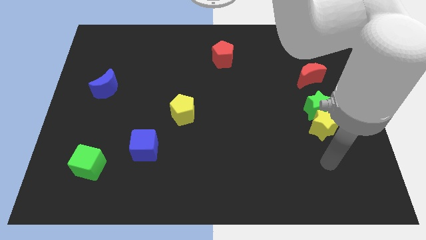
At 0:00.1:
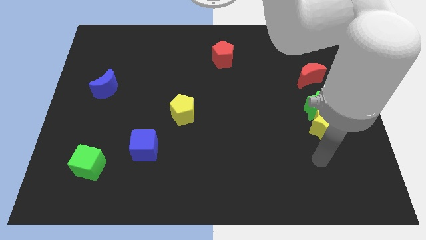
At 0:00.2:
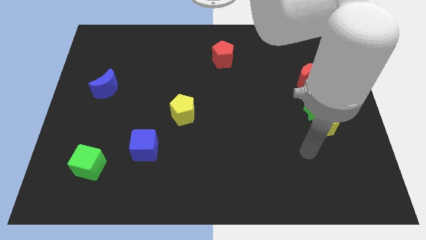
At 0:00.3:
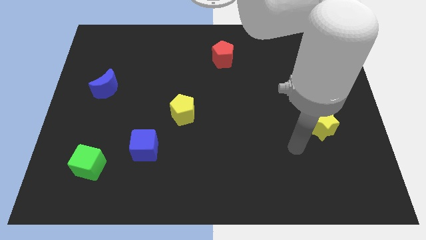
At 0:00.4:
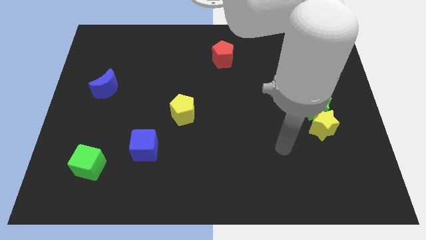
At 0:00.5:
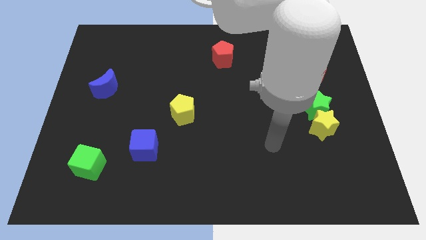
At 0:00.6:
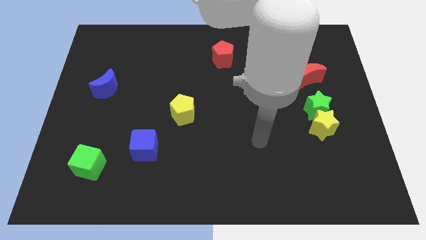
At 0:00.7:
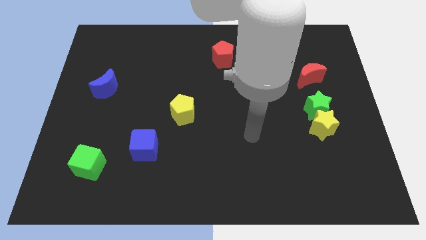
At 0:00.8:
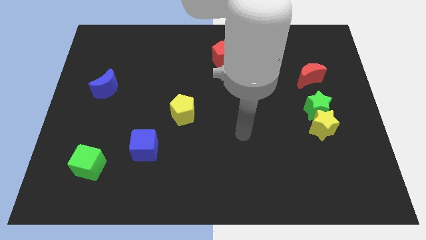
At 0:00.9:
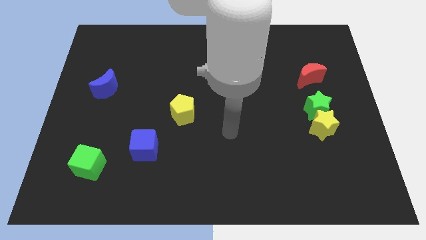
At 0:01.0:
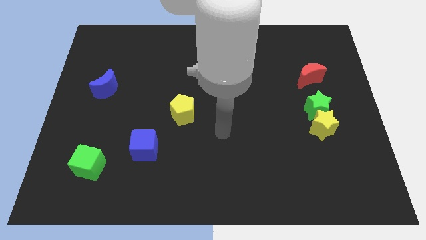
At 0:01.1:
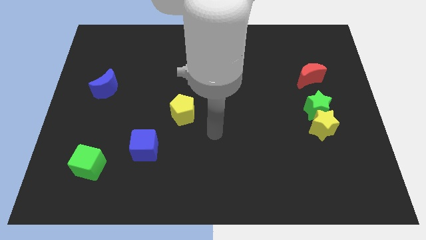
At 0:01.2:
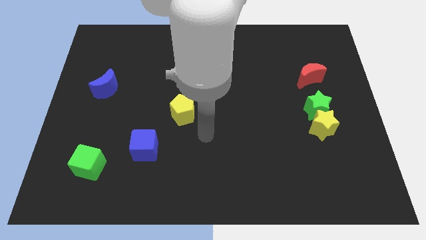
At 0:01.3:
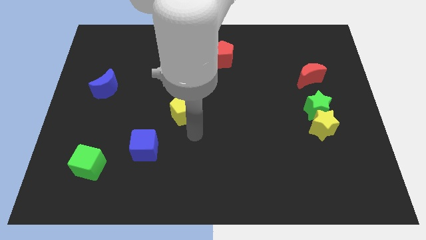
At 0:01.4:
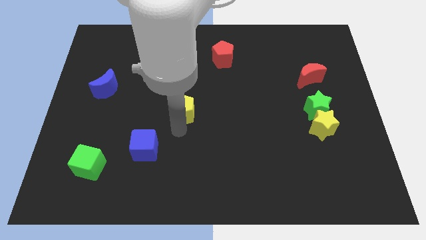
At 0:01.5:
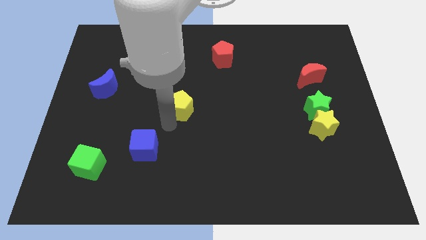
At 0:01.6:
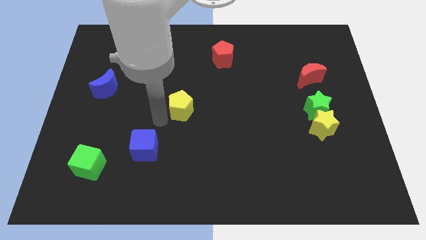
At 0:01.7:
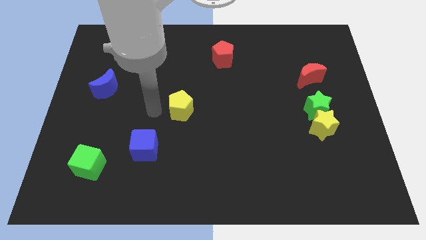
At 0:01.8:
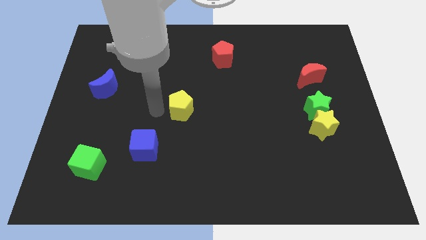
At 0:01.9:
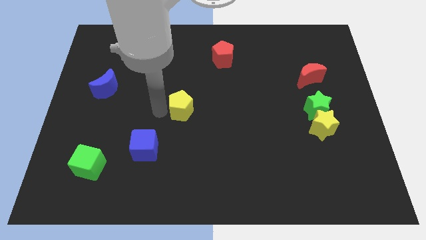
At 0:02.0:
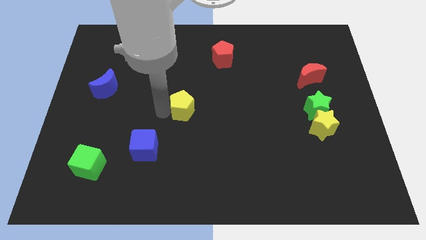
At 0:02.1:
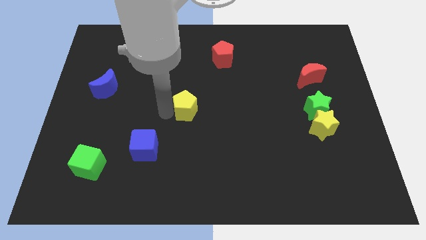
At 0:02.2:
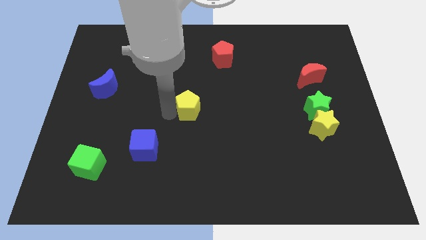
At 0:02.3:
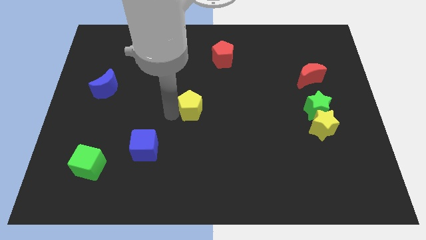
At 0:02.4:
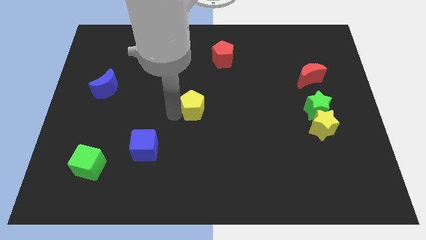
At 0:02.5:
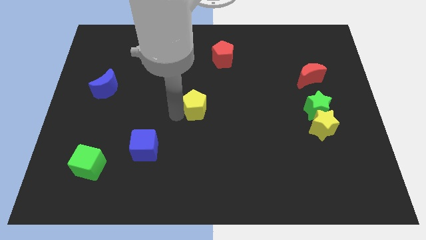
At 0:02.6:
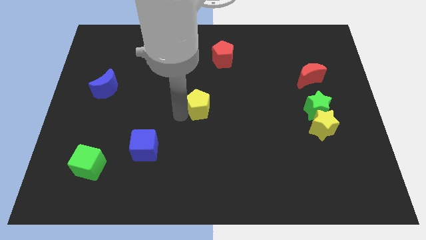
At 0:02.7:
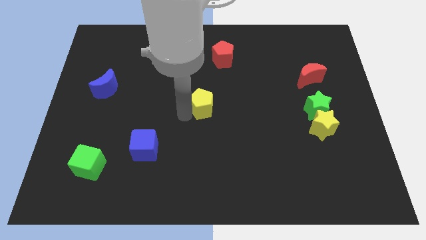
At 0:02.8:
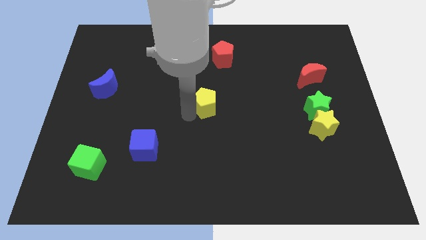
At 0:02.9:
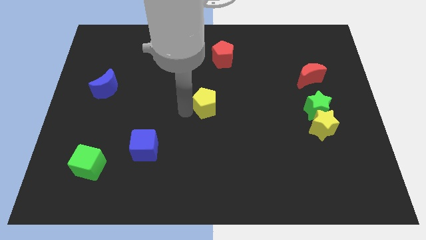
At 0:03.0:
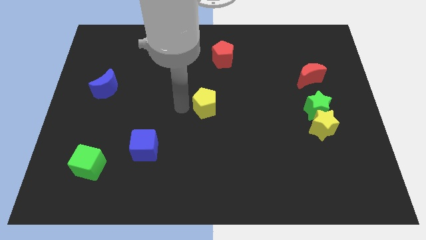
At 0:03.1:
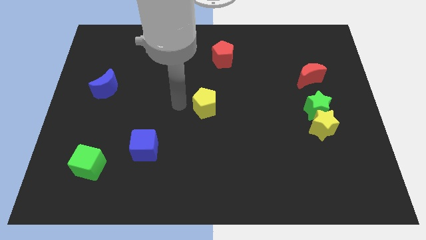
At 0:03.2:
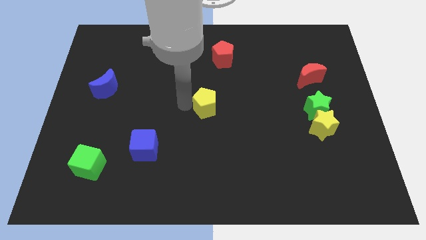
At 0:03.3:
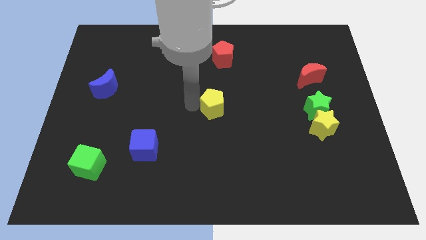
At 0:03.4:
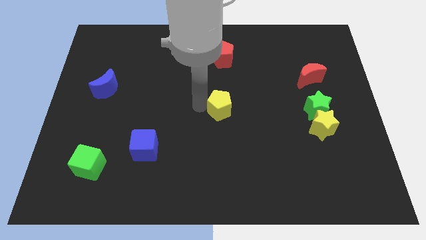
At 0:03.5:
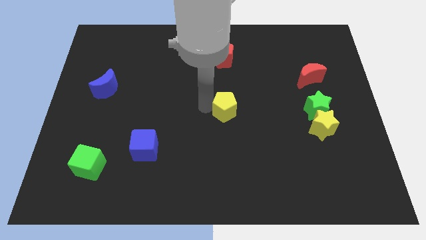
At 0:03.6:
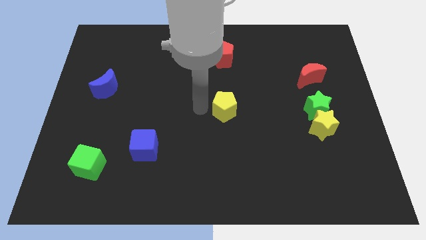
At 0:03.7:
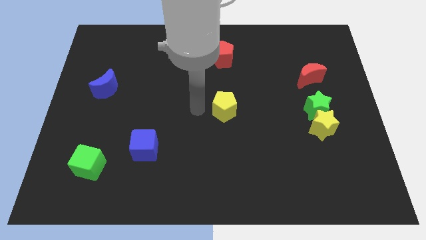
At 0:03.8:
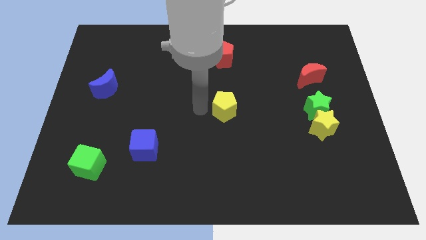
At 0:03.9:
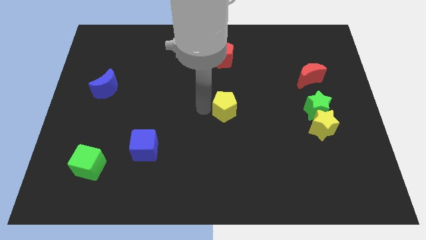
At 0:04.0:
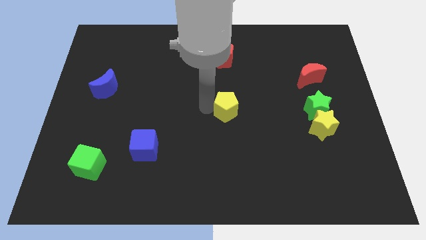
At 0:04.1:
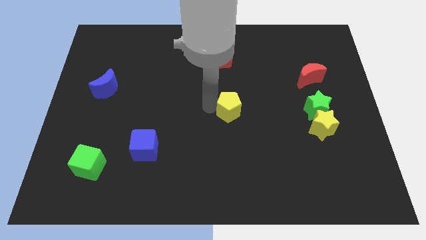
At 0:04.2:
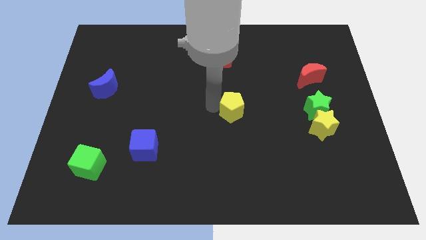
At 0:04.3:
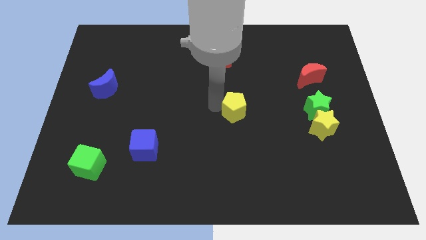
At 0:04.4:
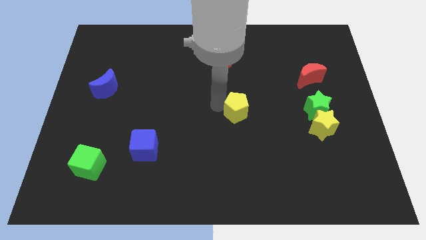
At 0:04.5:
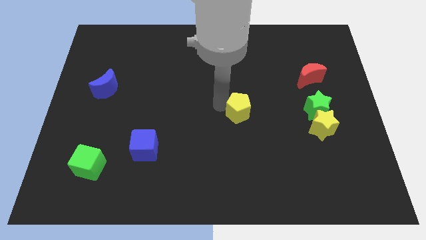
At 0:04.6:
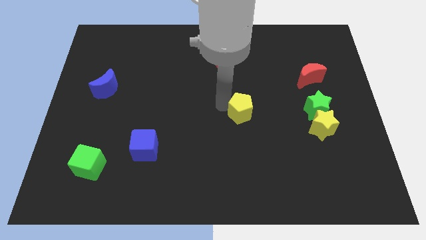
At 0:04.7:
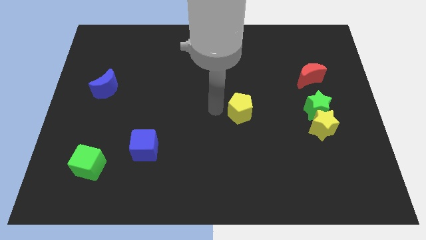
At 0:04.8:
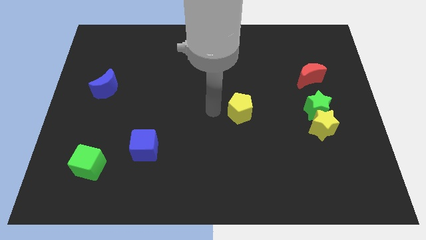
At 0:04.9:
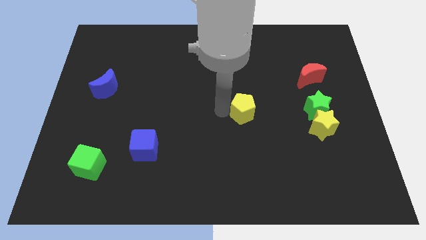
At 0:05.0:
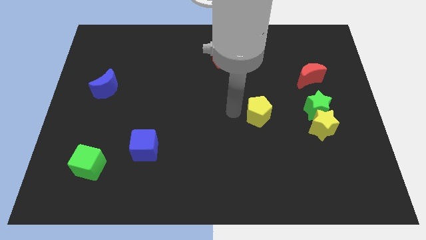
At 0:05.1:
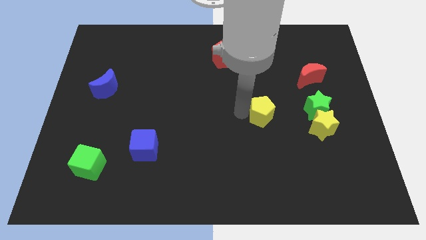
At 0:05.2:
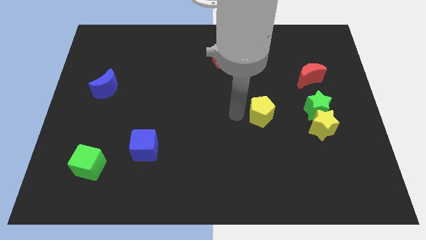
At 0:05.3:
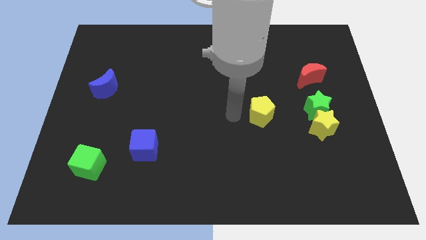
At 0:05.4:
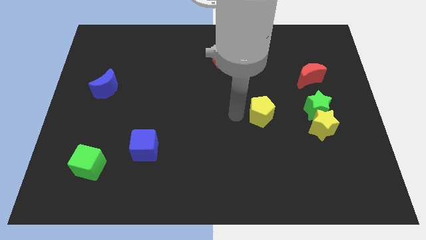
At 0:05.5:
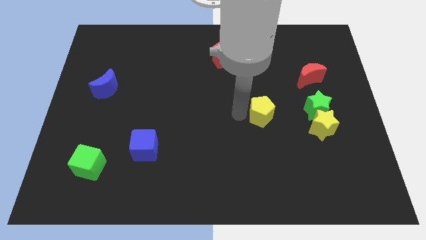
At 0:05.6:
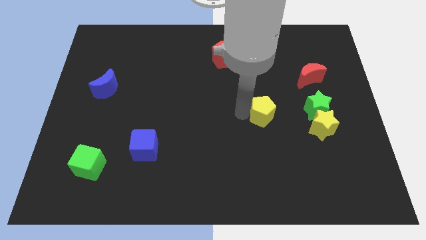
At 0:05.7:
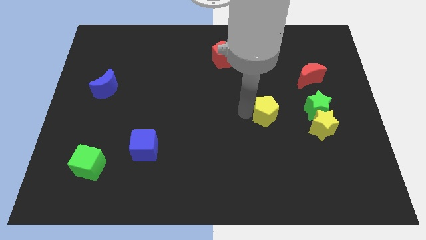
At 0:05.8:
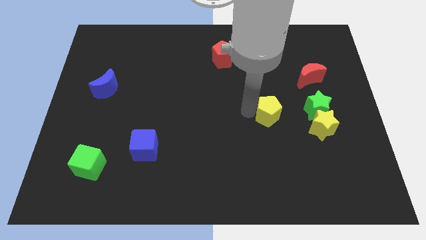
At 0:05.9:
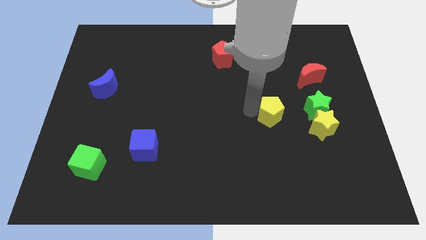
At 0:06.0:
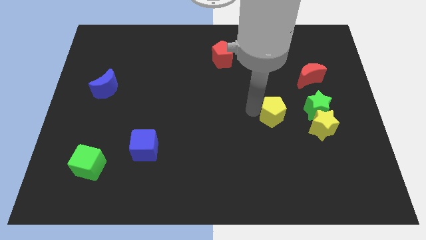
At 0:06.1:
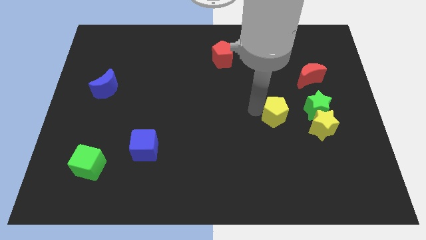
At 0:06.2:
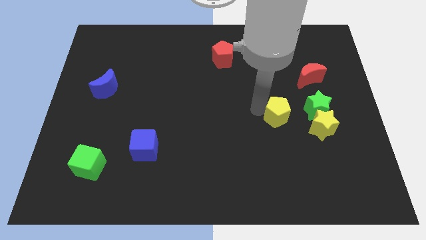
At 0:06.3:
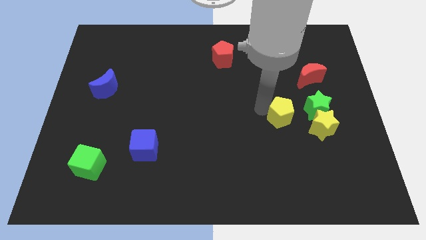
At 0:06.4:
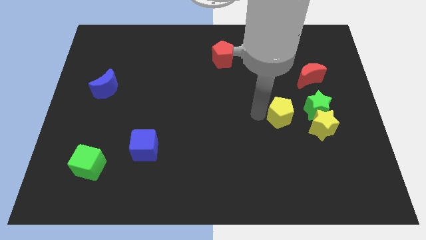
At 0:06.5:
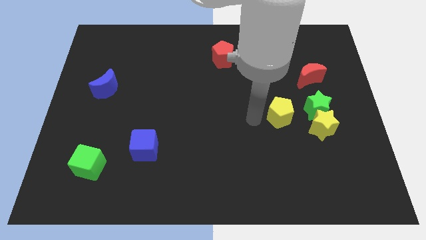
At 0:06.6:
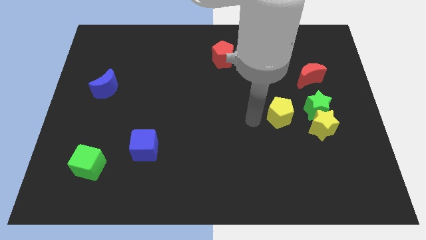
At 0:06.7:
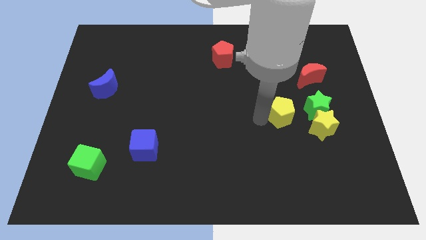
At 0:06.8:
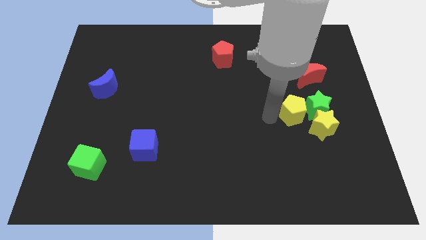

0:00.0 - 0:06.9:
move the yellow pentagon to the green star
